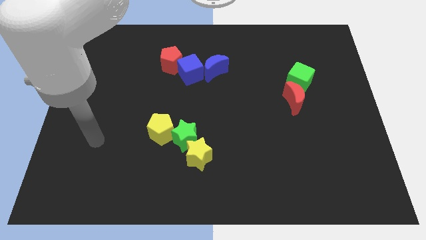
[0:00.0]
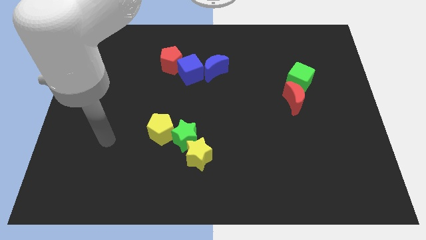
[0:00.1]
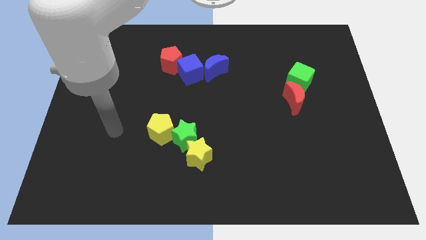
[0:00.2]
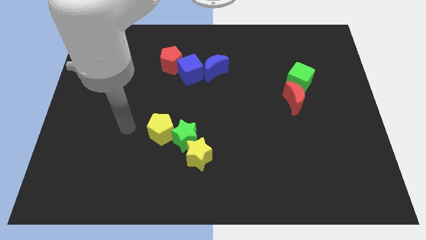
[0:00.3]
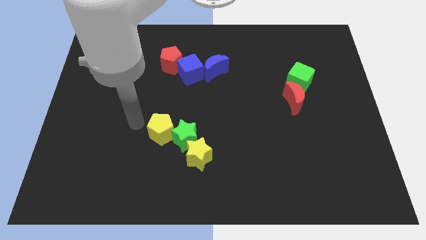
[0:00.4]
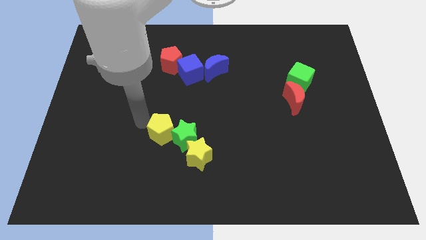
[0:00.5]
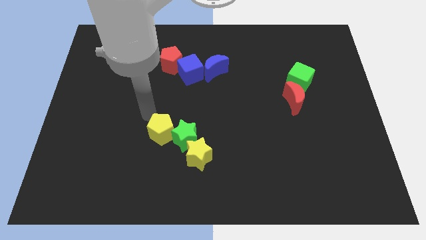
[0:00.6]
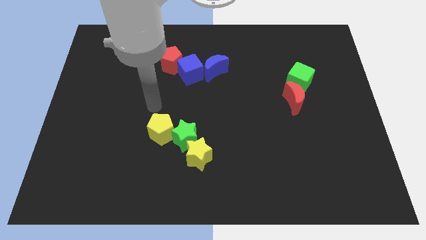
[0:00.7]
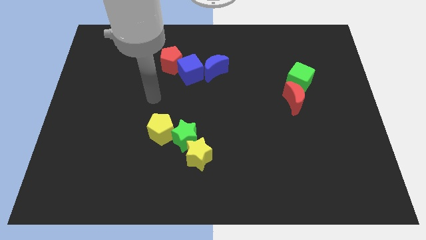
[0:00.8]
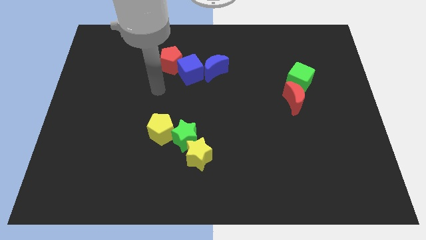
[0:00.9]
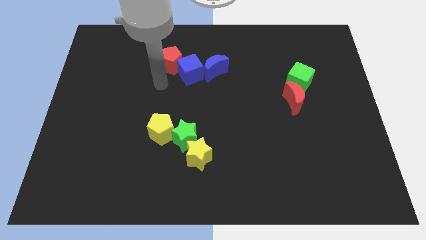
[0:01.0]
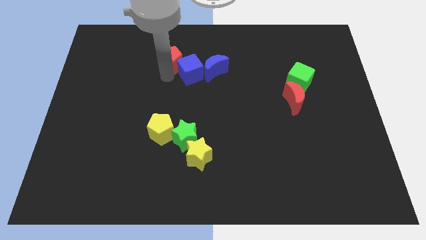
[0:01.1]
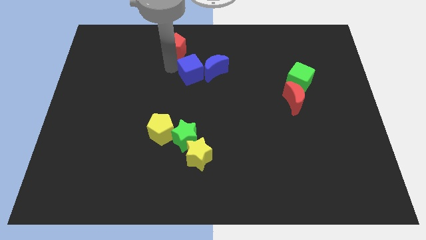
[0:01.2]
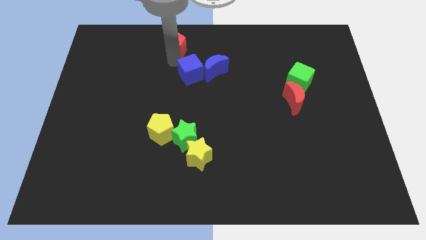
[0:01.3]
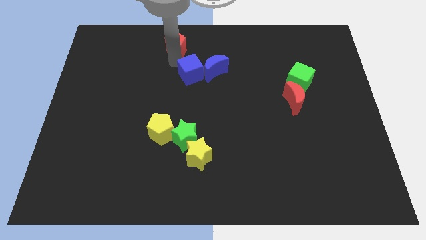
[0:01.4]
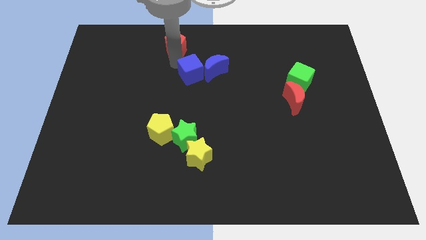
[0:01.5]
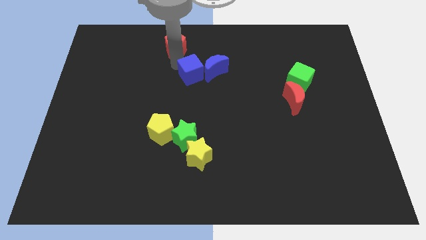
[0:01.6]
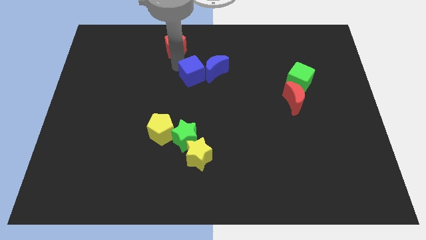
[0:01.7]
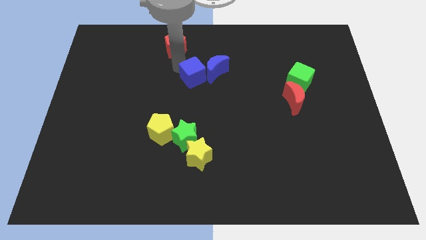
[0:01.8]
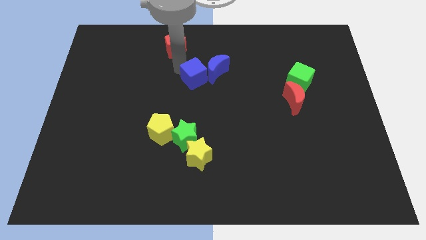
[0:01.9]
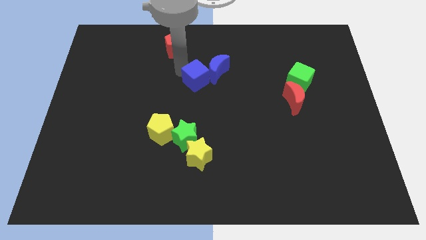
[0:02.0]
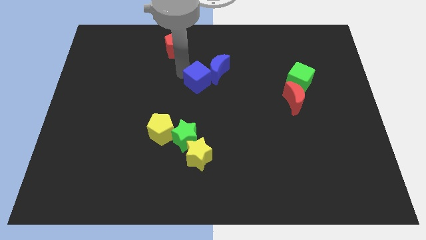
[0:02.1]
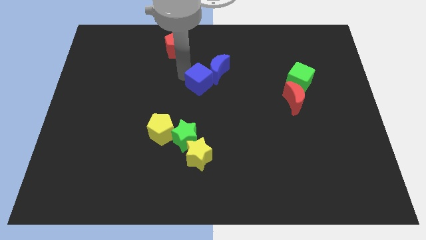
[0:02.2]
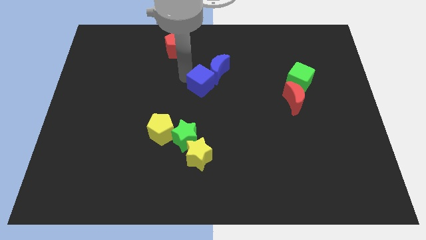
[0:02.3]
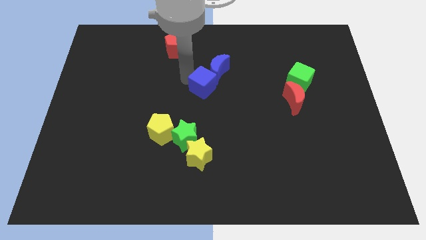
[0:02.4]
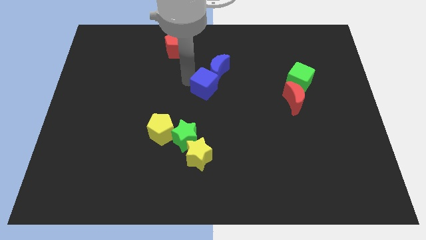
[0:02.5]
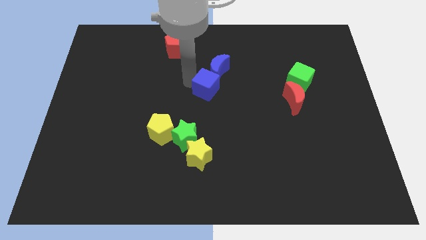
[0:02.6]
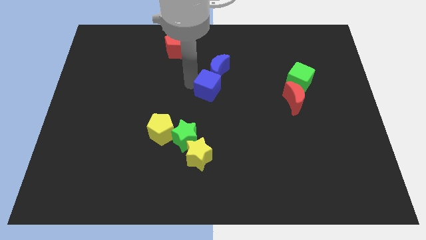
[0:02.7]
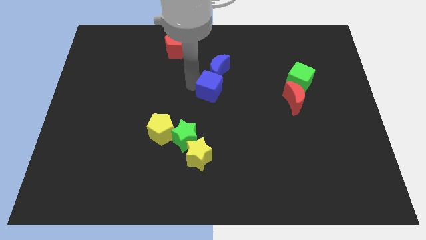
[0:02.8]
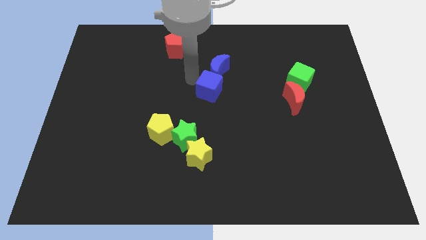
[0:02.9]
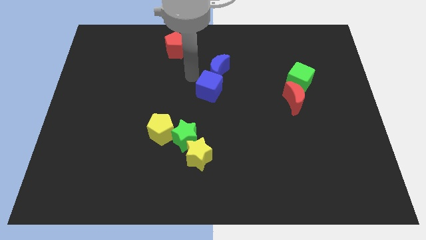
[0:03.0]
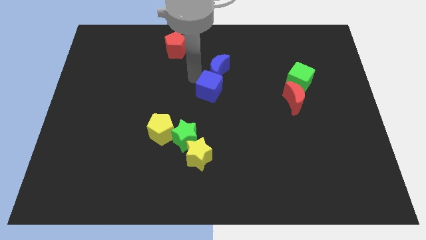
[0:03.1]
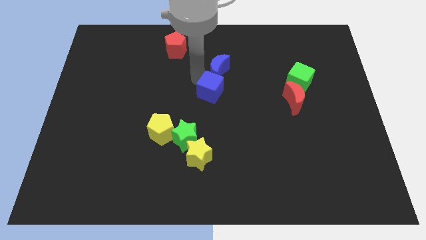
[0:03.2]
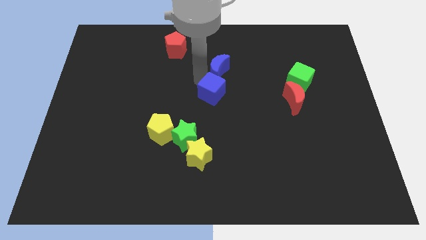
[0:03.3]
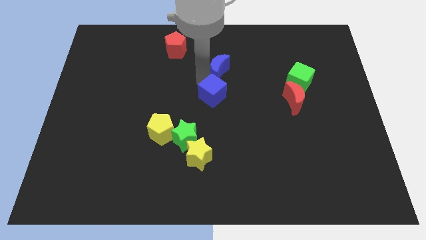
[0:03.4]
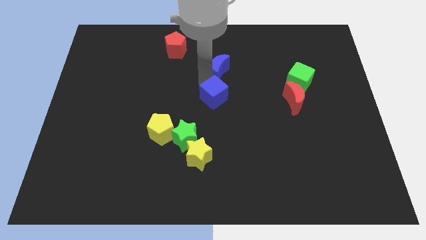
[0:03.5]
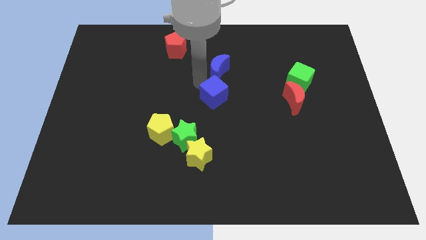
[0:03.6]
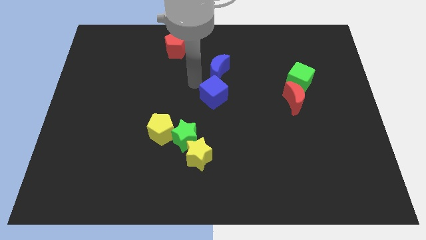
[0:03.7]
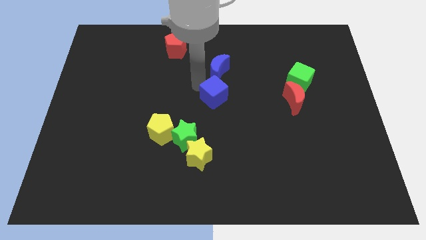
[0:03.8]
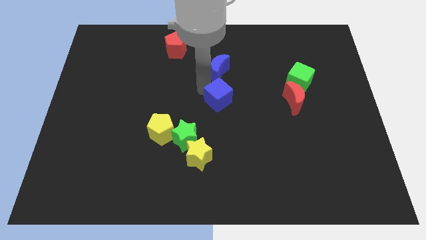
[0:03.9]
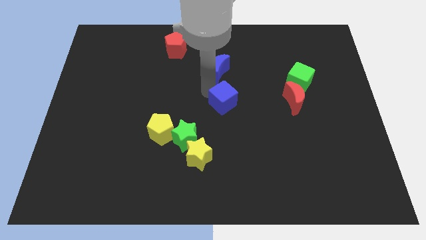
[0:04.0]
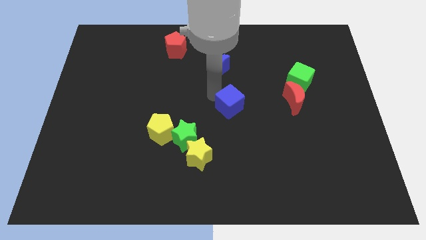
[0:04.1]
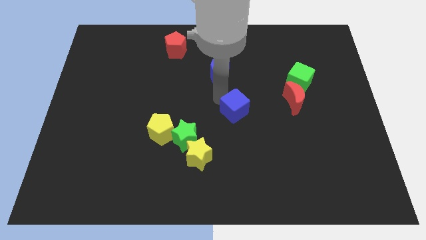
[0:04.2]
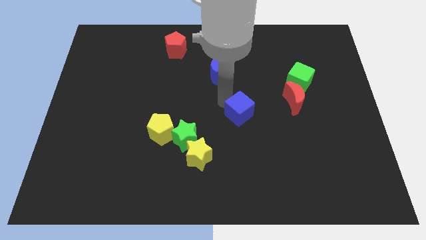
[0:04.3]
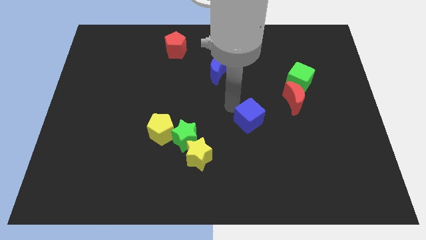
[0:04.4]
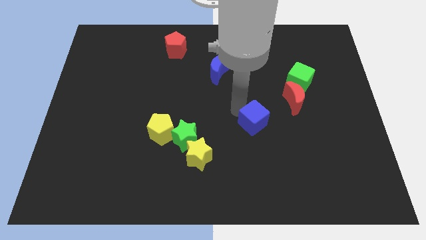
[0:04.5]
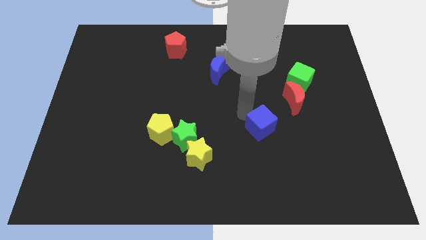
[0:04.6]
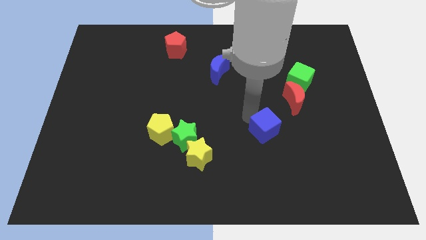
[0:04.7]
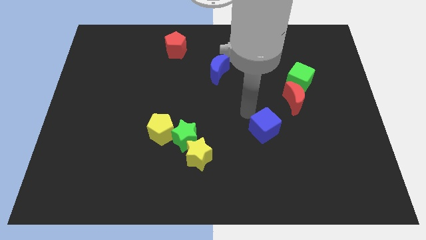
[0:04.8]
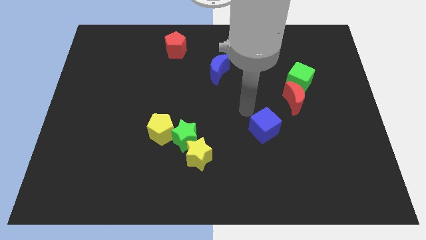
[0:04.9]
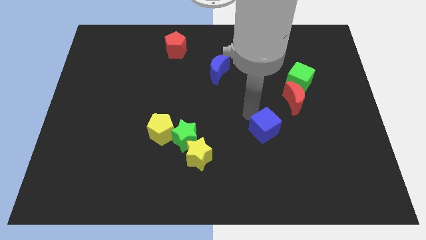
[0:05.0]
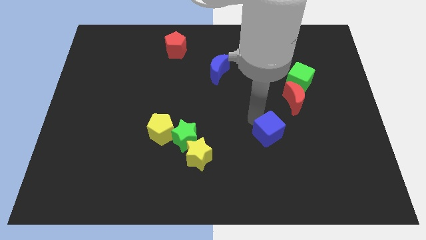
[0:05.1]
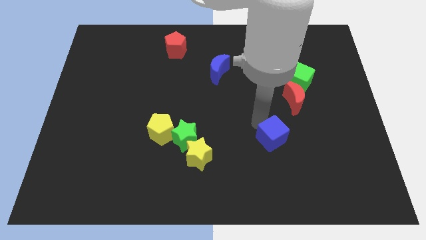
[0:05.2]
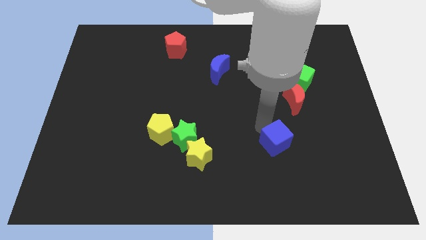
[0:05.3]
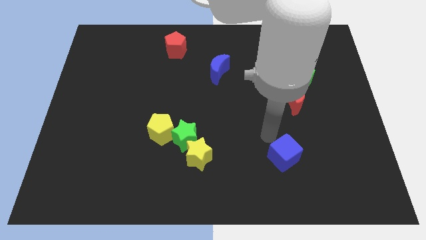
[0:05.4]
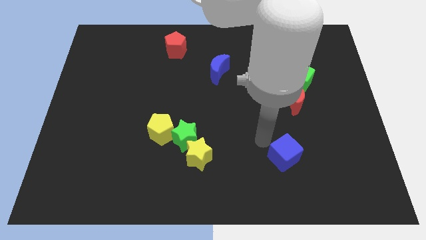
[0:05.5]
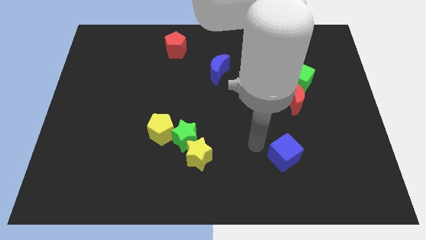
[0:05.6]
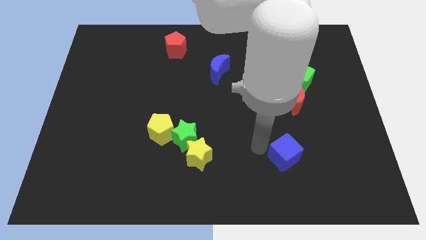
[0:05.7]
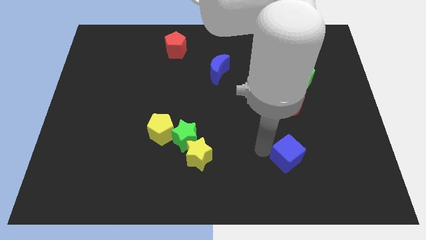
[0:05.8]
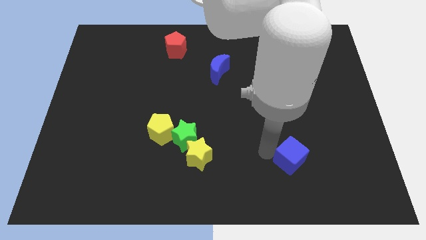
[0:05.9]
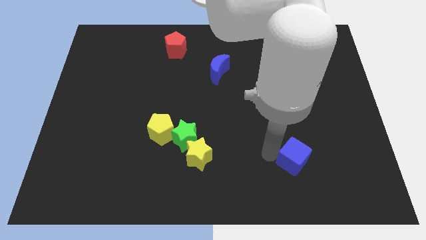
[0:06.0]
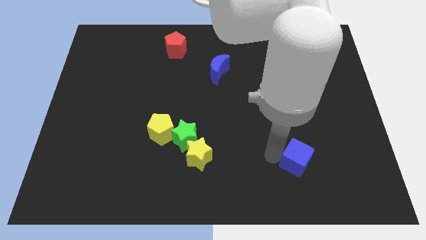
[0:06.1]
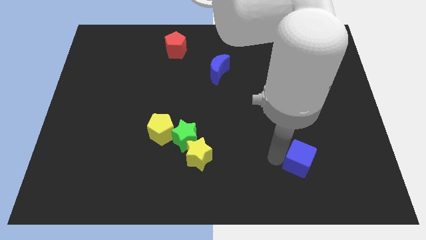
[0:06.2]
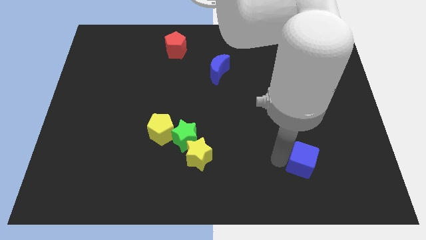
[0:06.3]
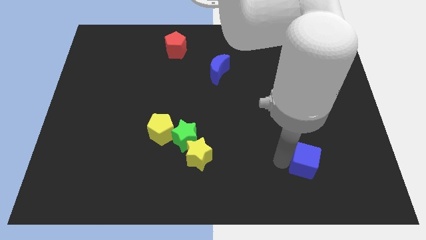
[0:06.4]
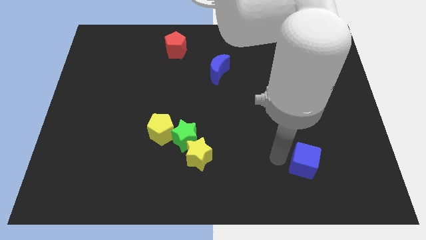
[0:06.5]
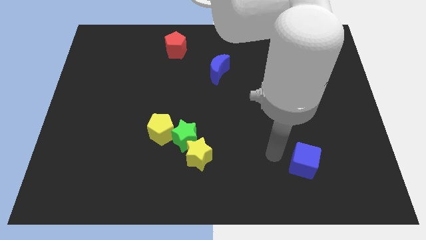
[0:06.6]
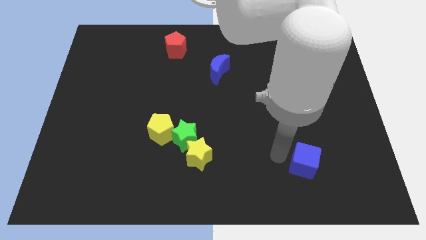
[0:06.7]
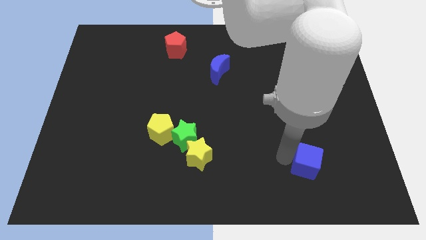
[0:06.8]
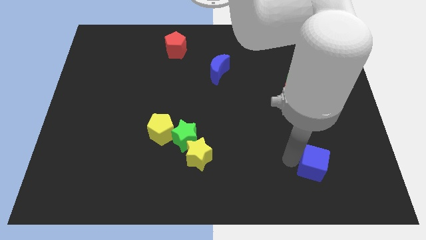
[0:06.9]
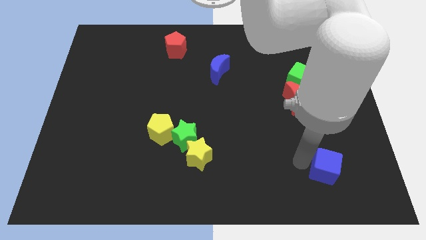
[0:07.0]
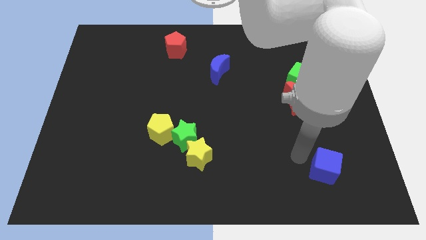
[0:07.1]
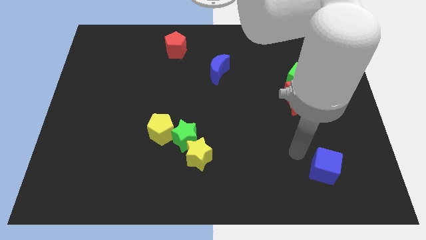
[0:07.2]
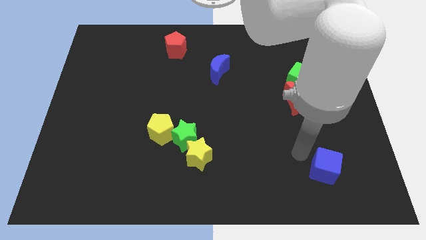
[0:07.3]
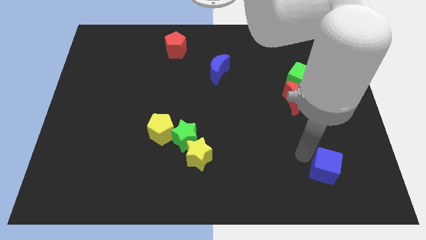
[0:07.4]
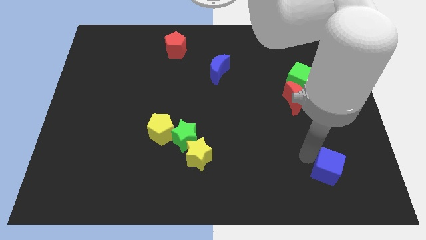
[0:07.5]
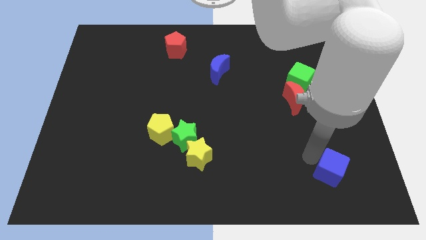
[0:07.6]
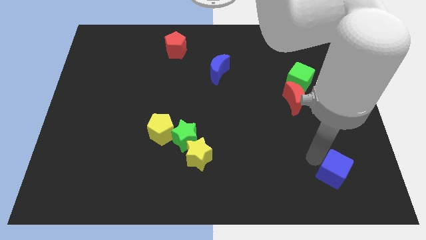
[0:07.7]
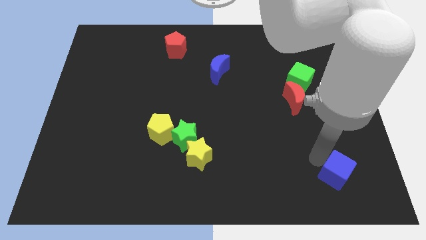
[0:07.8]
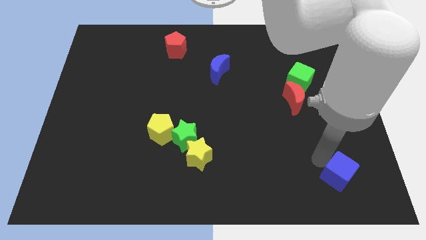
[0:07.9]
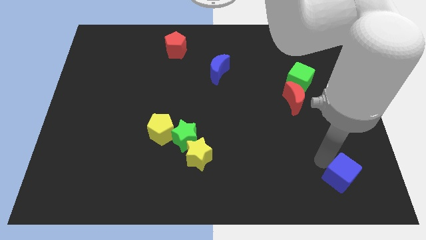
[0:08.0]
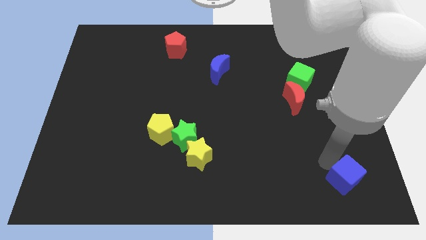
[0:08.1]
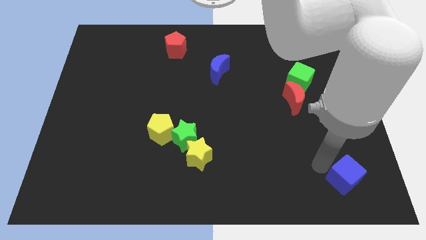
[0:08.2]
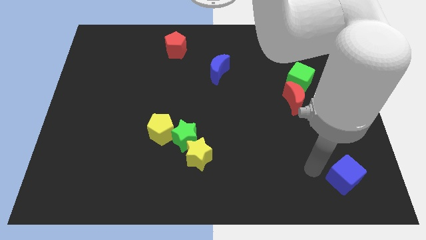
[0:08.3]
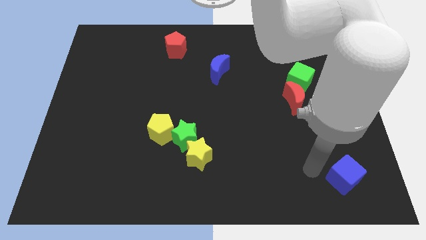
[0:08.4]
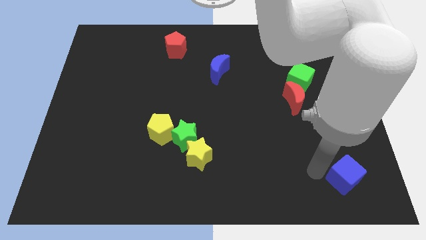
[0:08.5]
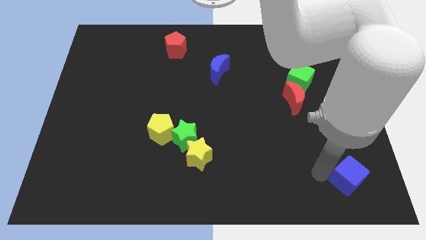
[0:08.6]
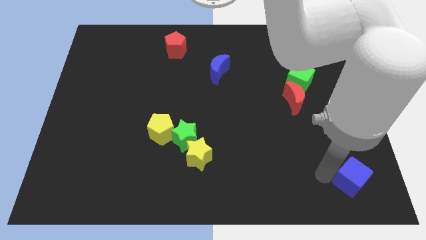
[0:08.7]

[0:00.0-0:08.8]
move the blue cube to the bottom right corner
